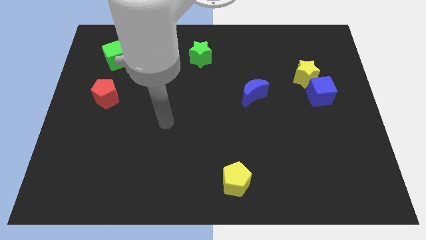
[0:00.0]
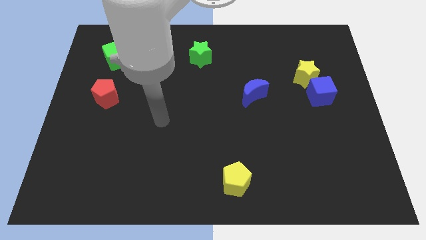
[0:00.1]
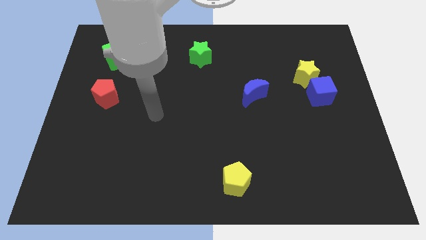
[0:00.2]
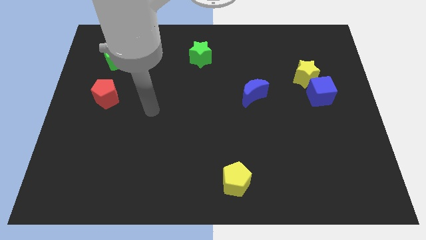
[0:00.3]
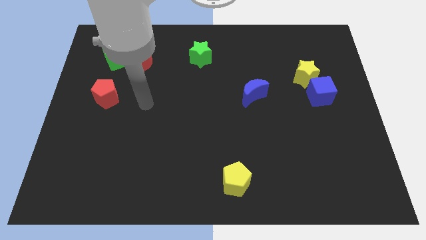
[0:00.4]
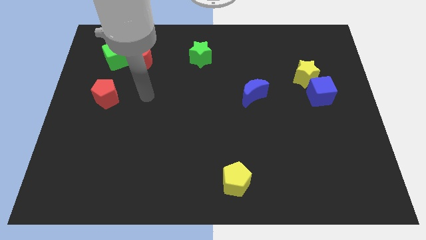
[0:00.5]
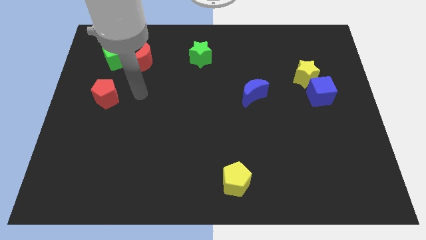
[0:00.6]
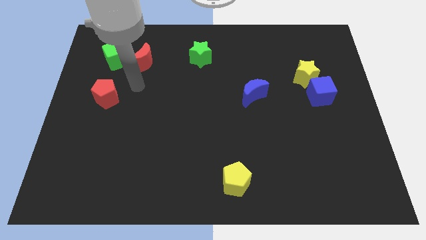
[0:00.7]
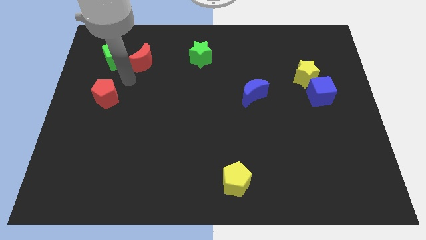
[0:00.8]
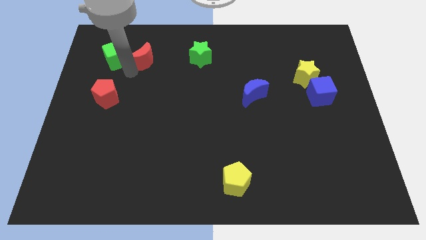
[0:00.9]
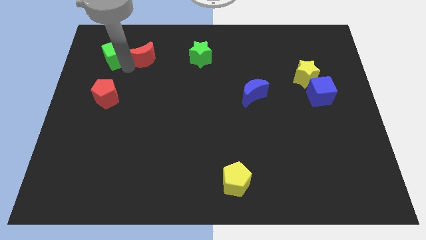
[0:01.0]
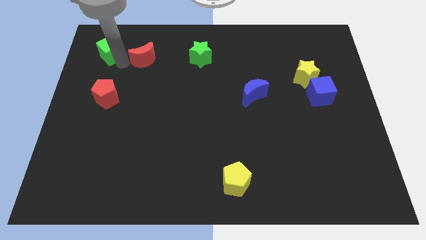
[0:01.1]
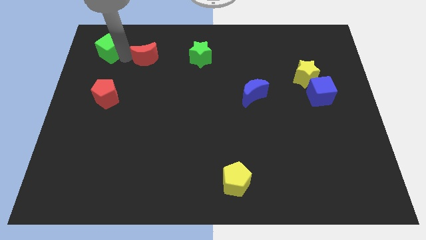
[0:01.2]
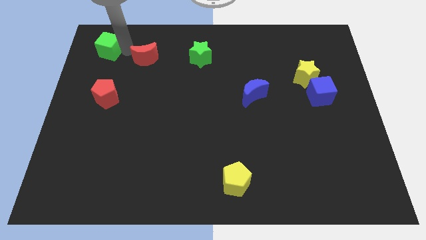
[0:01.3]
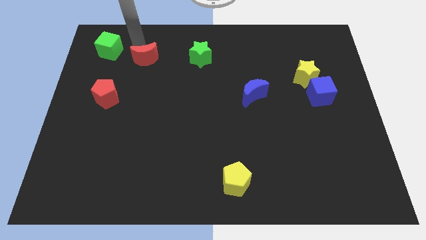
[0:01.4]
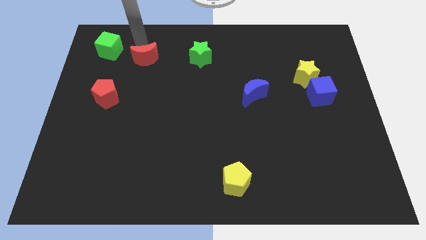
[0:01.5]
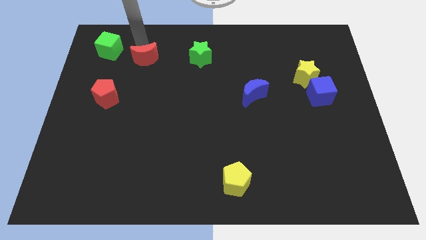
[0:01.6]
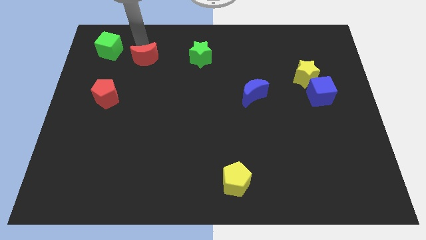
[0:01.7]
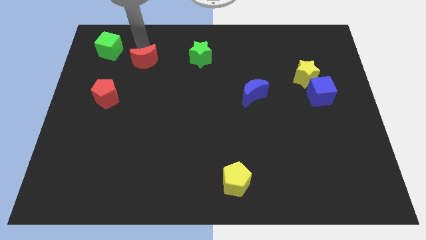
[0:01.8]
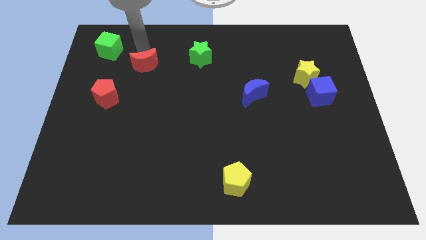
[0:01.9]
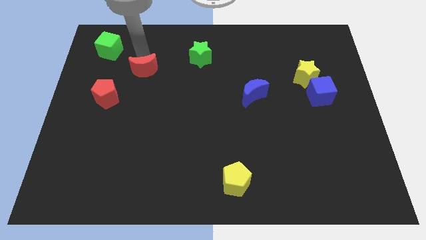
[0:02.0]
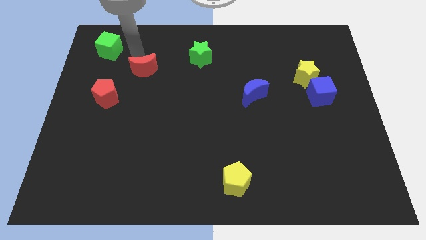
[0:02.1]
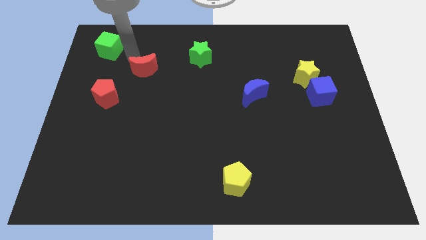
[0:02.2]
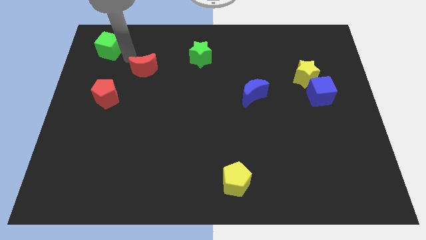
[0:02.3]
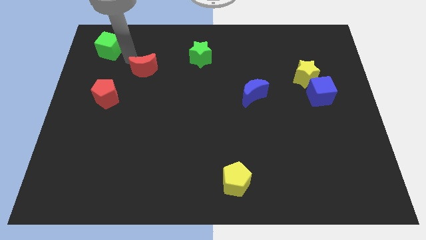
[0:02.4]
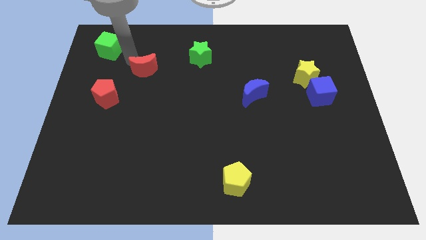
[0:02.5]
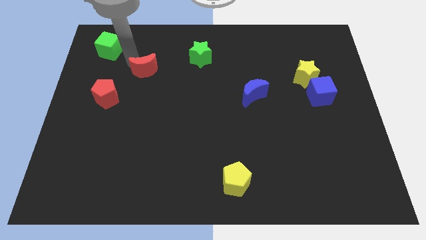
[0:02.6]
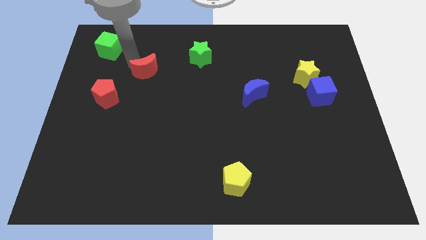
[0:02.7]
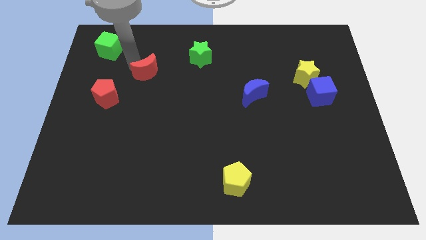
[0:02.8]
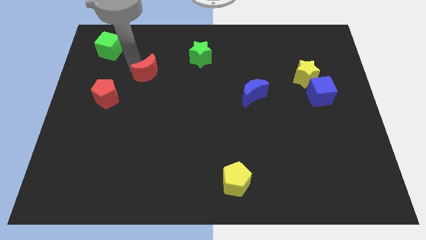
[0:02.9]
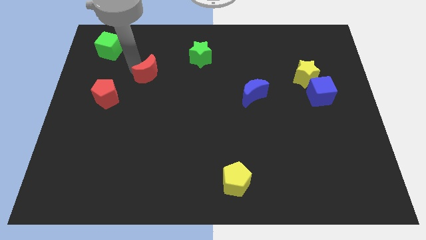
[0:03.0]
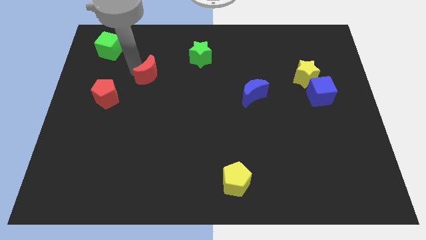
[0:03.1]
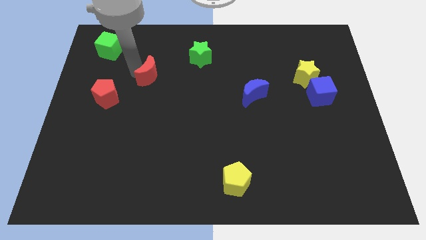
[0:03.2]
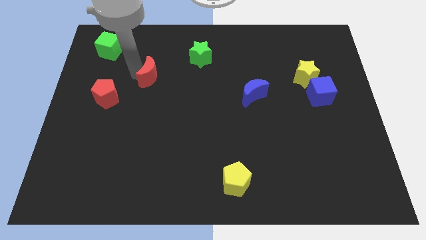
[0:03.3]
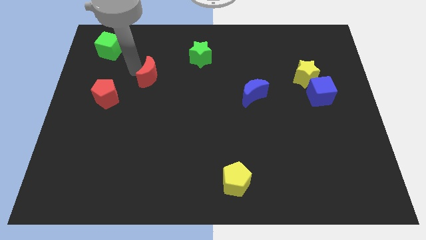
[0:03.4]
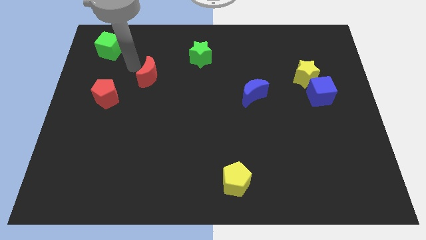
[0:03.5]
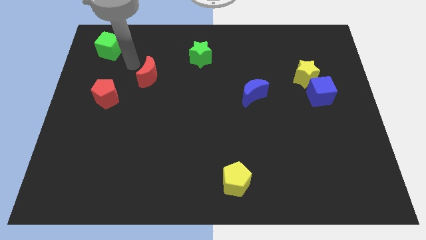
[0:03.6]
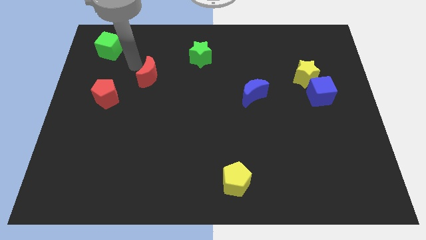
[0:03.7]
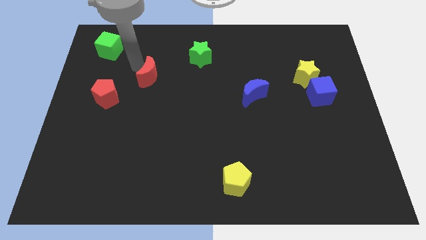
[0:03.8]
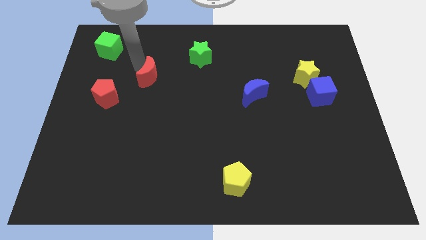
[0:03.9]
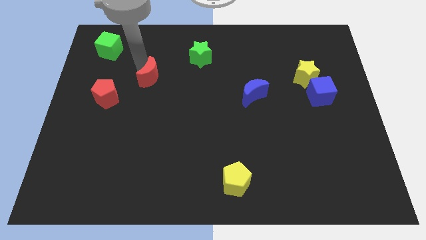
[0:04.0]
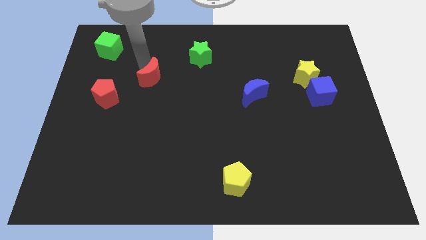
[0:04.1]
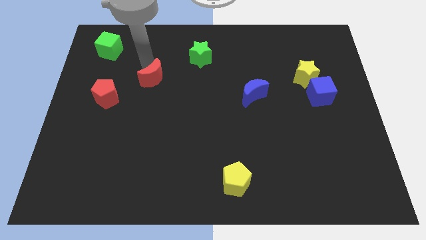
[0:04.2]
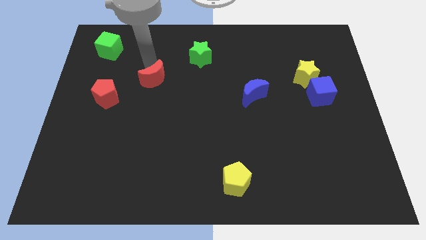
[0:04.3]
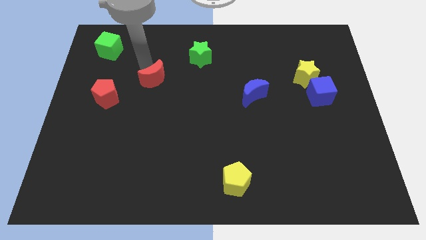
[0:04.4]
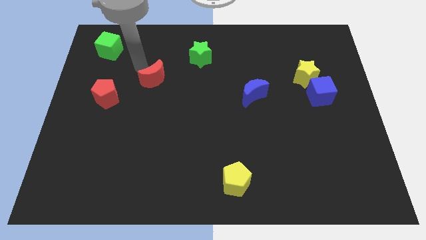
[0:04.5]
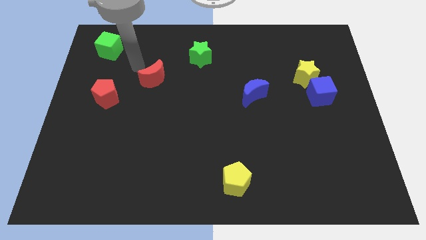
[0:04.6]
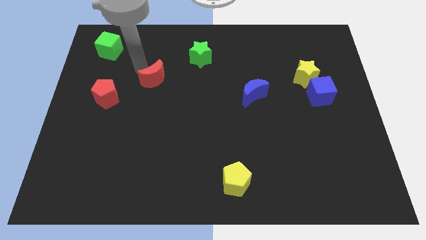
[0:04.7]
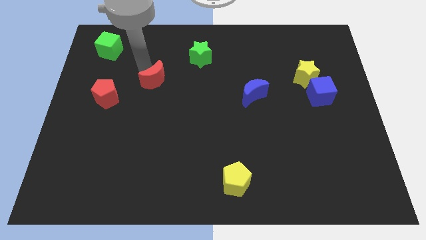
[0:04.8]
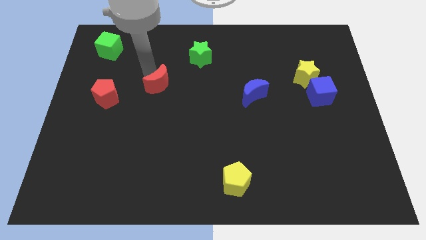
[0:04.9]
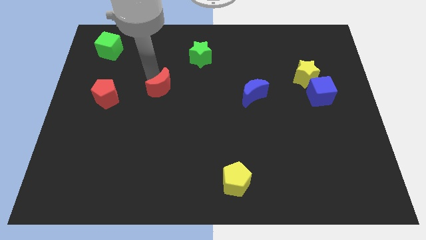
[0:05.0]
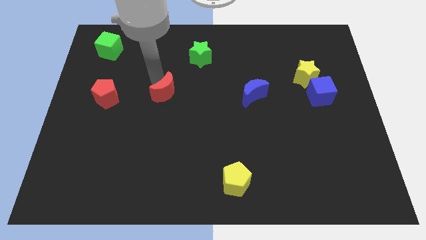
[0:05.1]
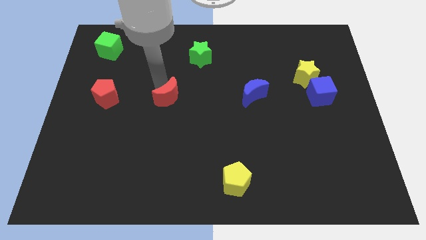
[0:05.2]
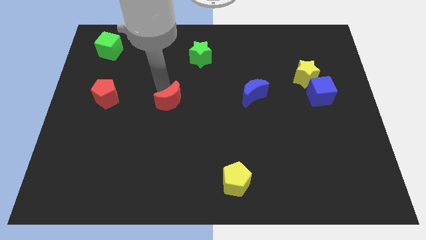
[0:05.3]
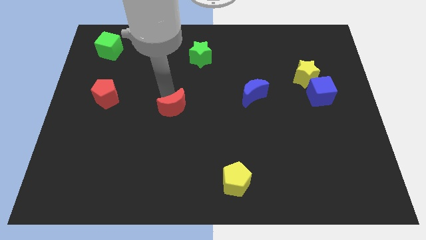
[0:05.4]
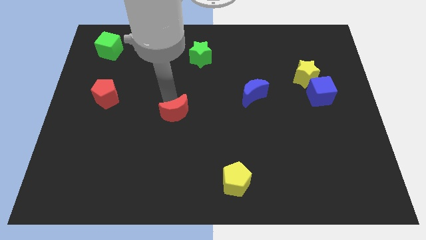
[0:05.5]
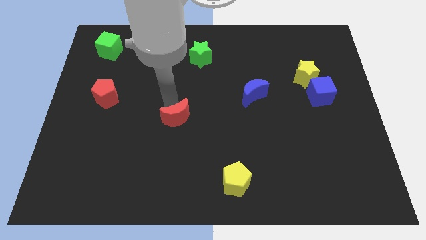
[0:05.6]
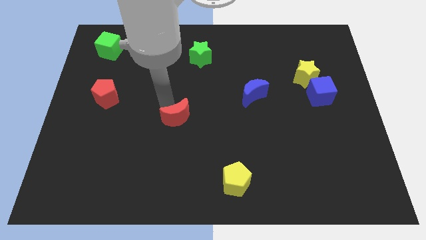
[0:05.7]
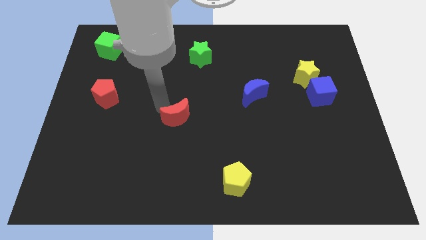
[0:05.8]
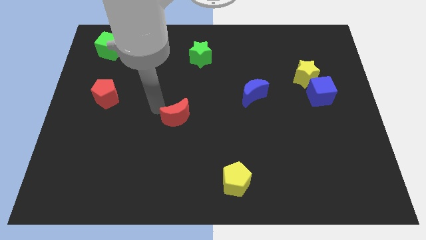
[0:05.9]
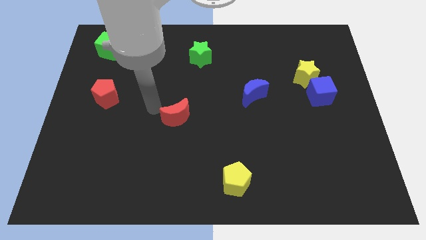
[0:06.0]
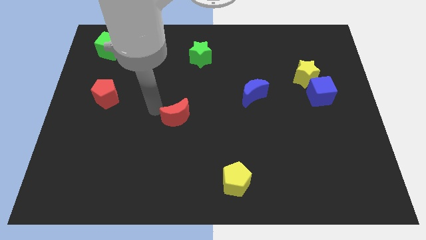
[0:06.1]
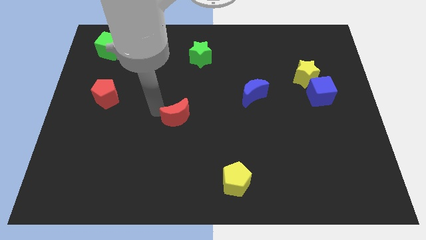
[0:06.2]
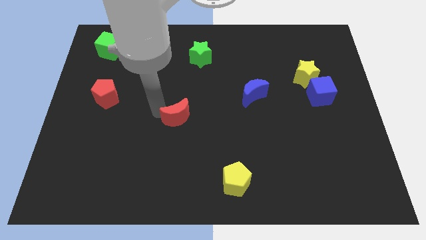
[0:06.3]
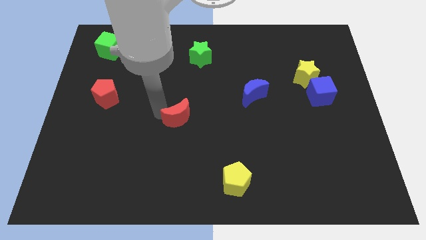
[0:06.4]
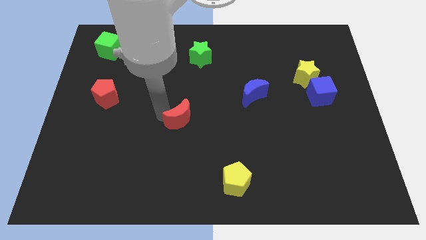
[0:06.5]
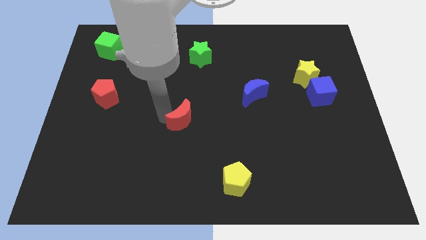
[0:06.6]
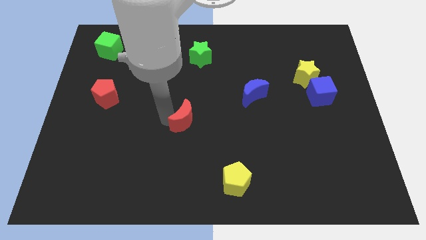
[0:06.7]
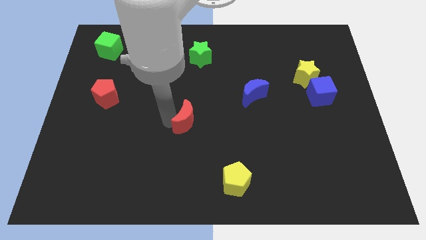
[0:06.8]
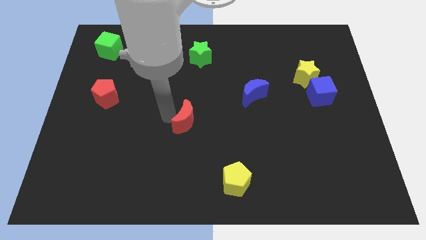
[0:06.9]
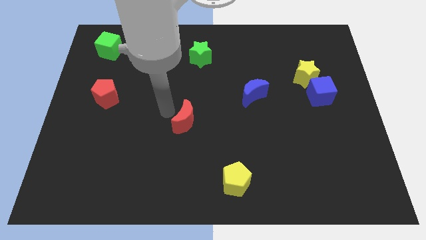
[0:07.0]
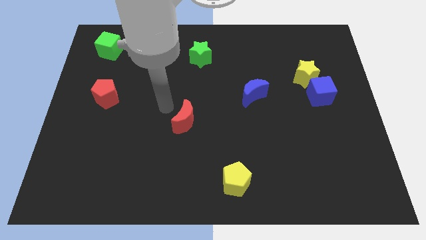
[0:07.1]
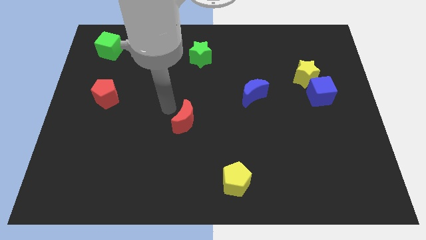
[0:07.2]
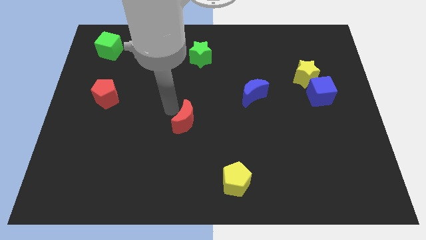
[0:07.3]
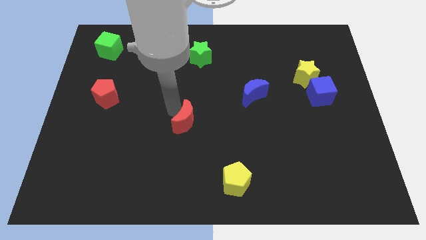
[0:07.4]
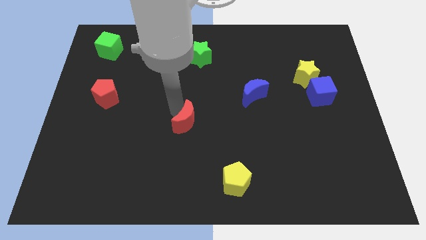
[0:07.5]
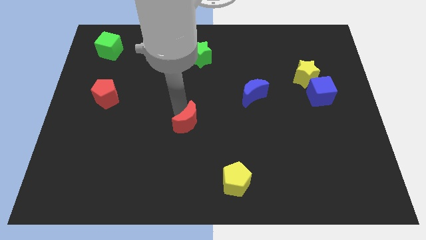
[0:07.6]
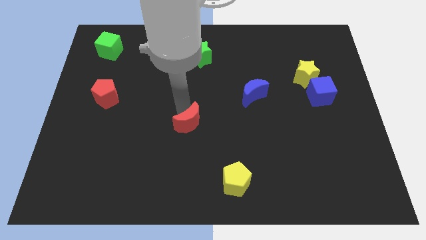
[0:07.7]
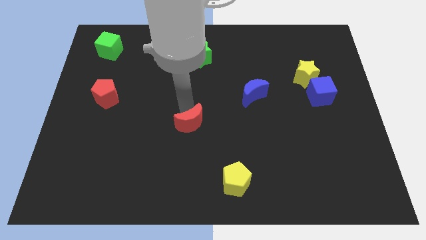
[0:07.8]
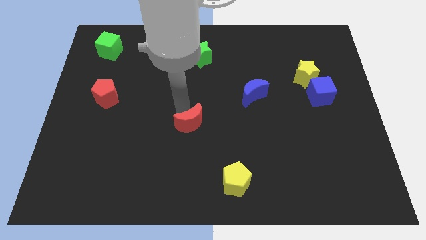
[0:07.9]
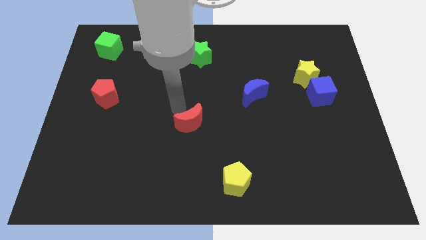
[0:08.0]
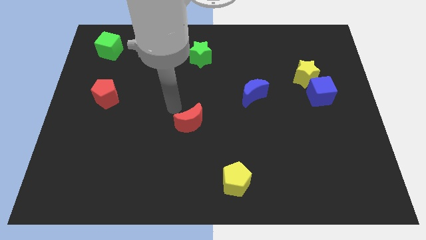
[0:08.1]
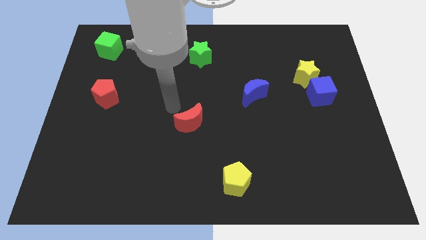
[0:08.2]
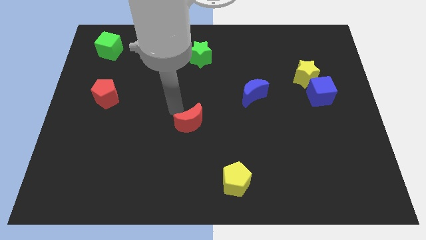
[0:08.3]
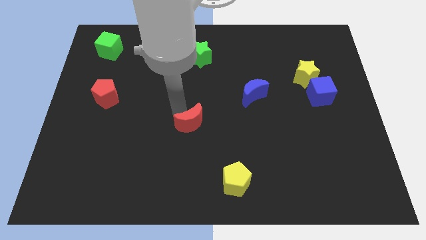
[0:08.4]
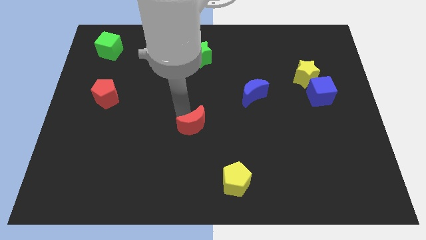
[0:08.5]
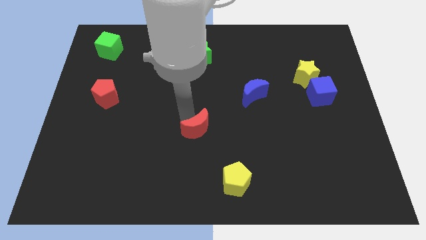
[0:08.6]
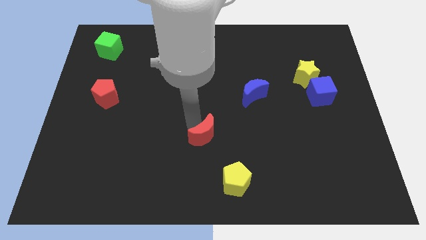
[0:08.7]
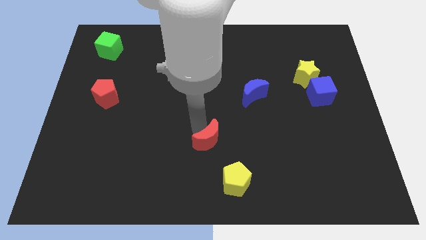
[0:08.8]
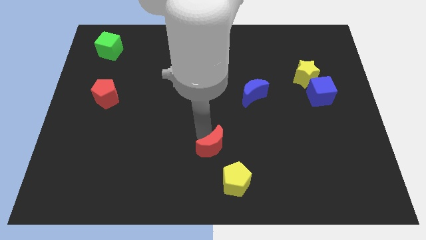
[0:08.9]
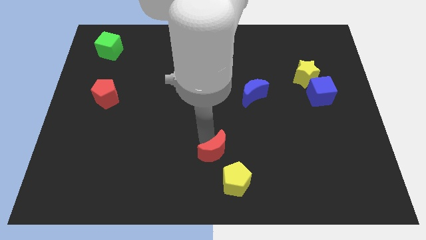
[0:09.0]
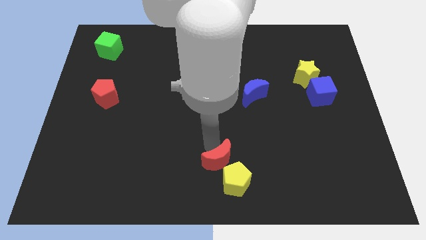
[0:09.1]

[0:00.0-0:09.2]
slide the red moon to the yellow pentagon
